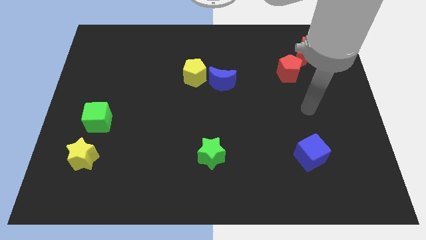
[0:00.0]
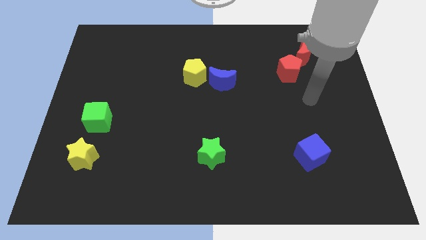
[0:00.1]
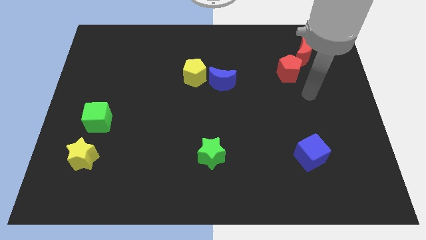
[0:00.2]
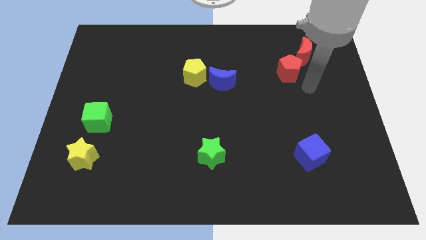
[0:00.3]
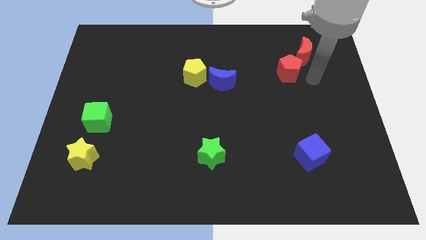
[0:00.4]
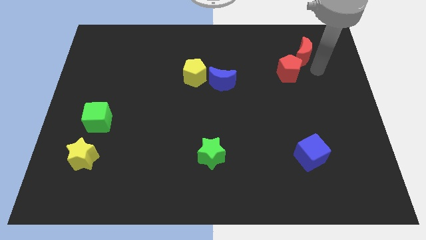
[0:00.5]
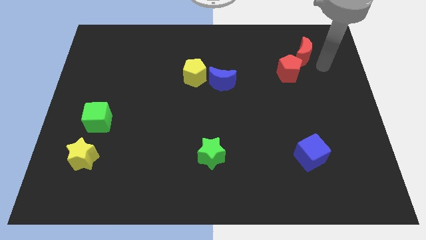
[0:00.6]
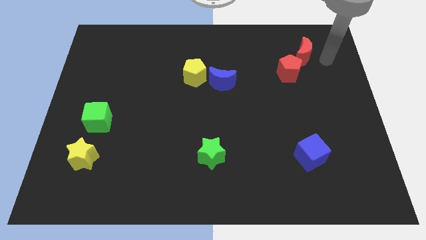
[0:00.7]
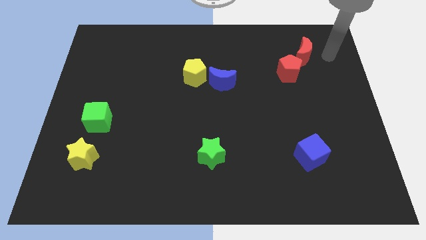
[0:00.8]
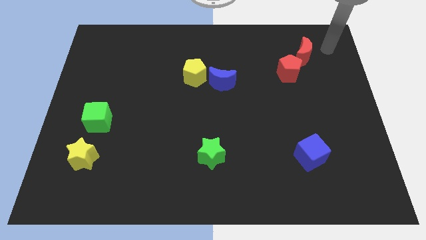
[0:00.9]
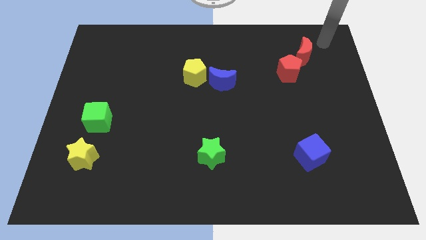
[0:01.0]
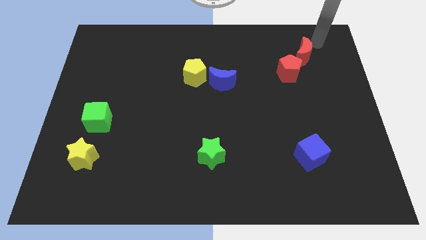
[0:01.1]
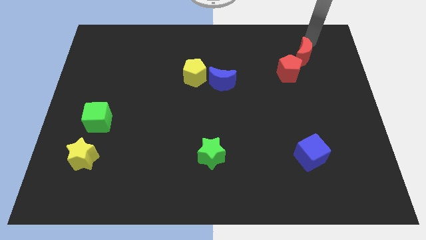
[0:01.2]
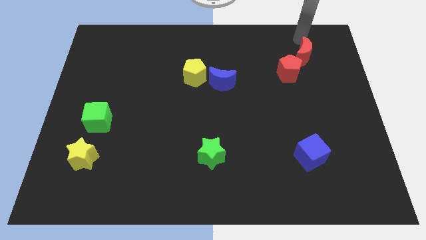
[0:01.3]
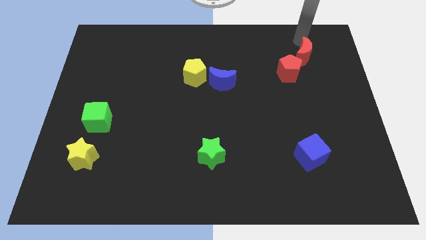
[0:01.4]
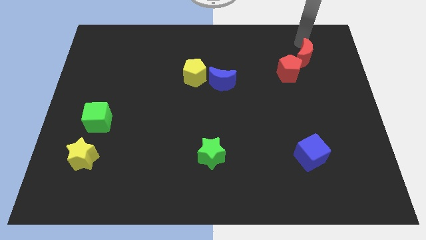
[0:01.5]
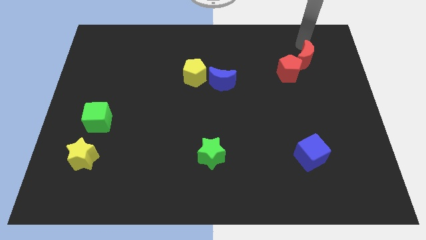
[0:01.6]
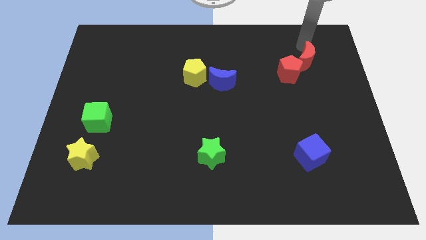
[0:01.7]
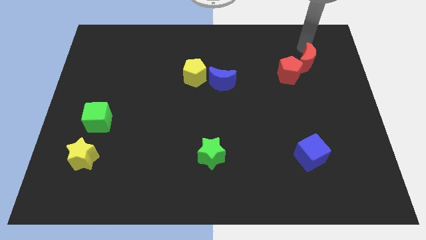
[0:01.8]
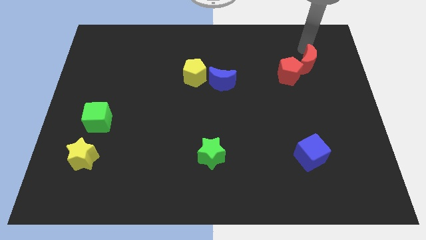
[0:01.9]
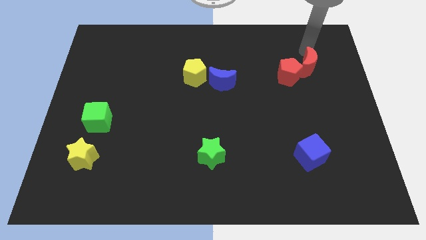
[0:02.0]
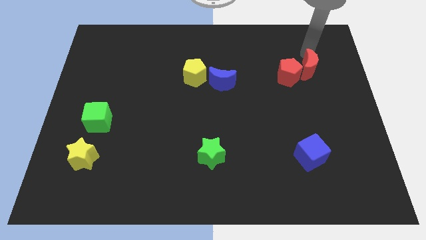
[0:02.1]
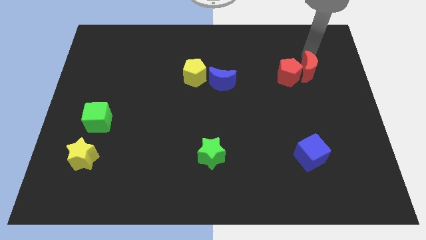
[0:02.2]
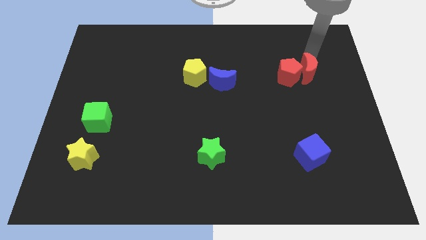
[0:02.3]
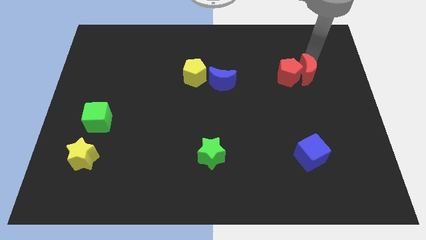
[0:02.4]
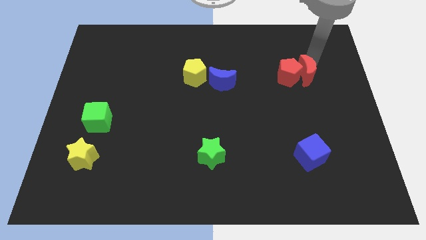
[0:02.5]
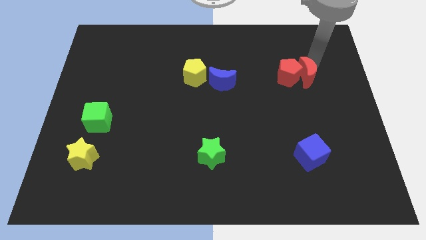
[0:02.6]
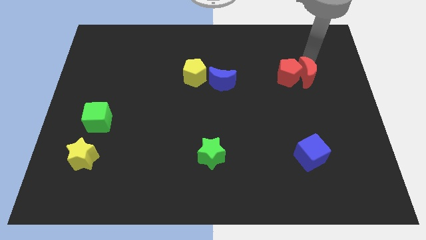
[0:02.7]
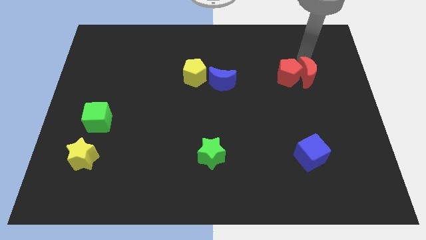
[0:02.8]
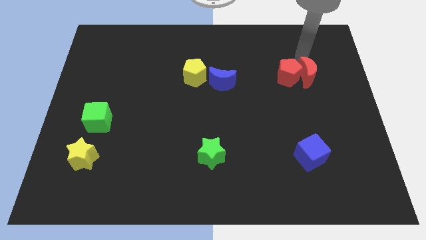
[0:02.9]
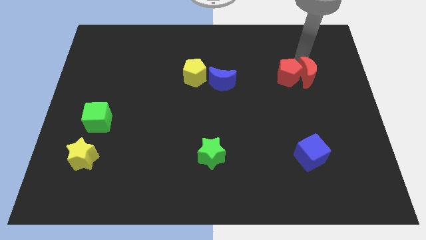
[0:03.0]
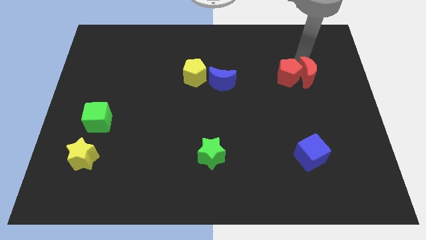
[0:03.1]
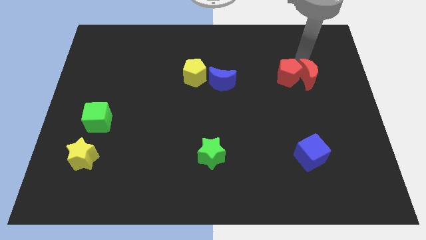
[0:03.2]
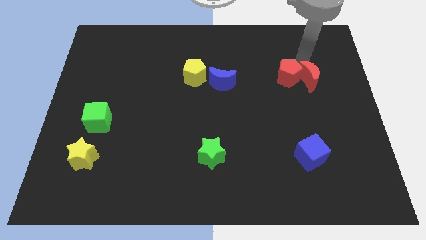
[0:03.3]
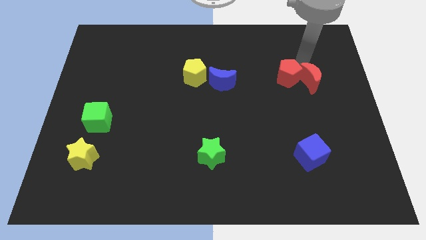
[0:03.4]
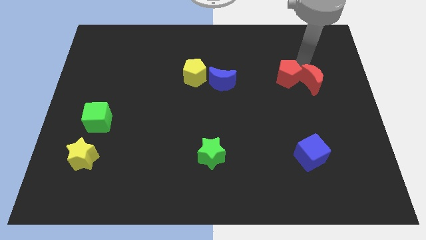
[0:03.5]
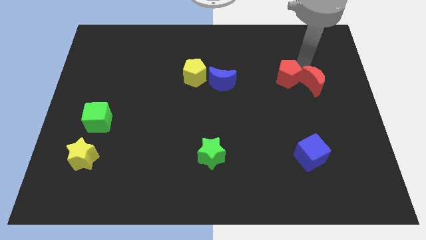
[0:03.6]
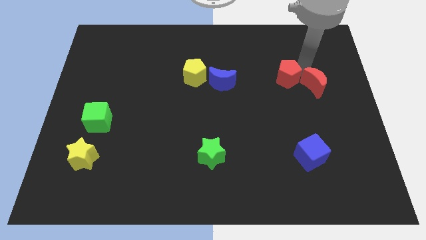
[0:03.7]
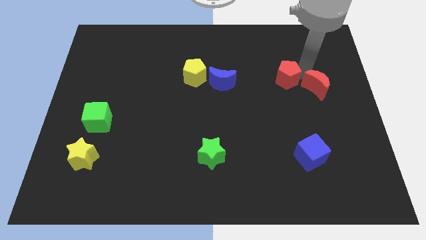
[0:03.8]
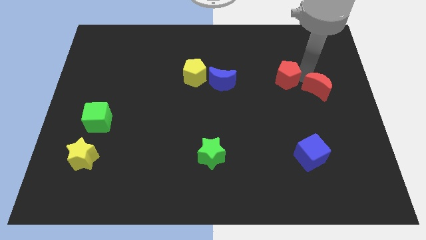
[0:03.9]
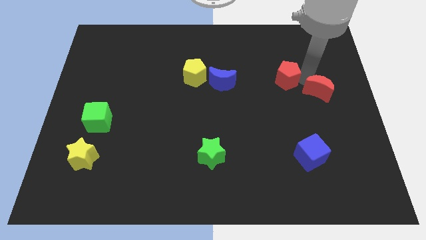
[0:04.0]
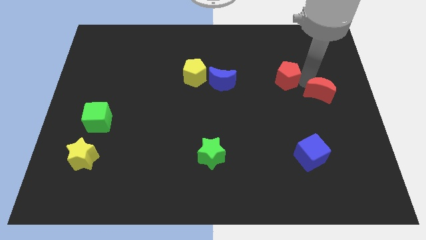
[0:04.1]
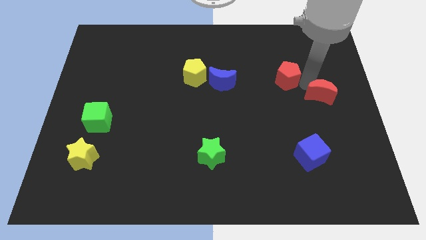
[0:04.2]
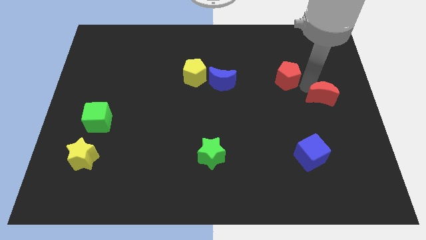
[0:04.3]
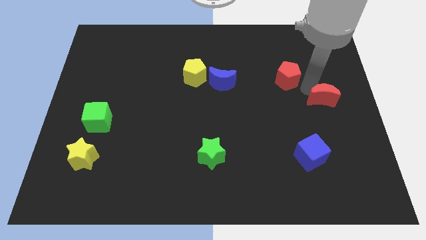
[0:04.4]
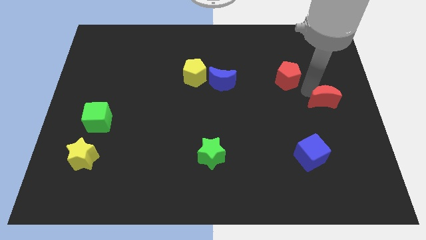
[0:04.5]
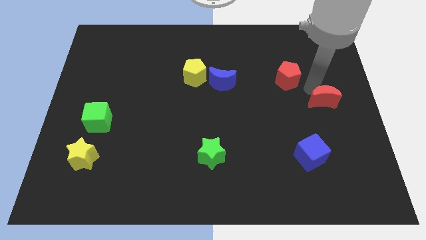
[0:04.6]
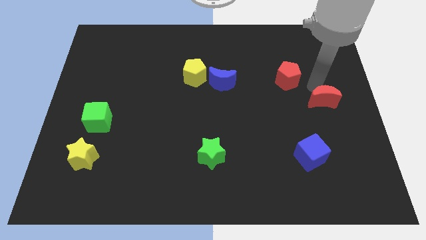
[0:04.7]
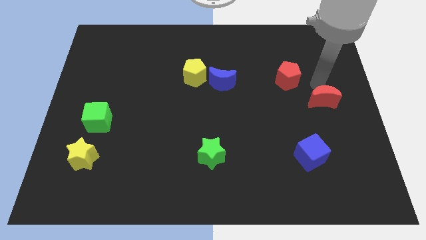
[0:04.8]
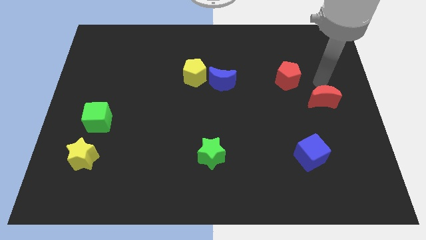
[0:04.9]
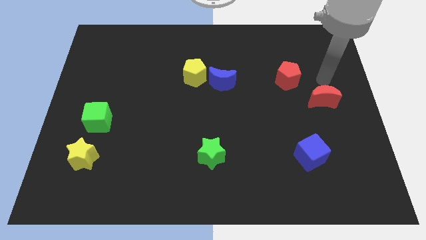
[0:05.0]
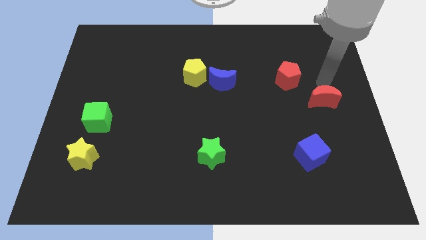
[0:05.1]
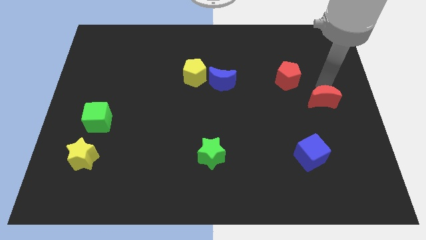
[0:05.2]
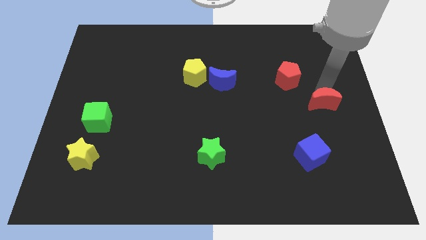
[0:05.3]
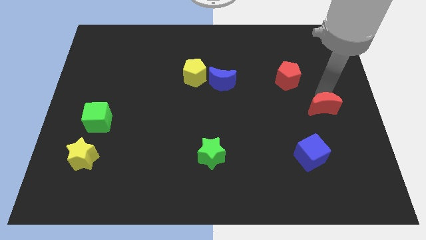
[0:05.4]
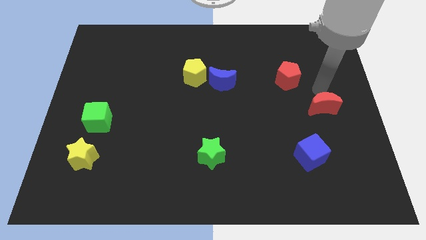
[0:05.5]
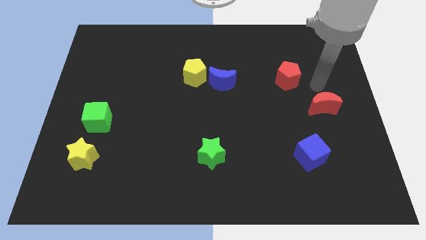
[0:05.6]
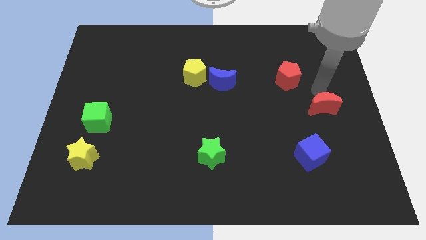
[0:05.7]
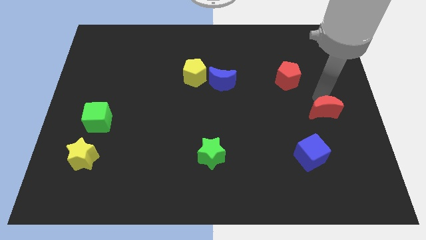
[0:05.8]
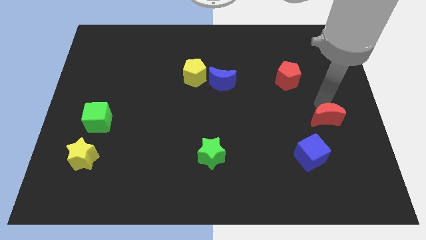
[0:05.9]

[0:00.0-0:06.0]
move the red moon diagonally up and to the right of the blue cube
